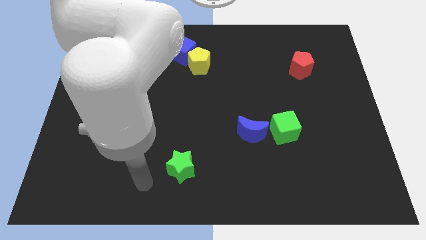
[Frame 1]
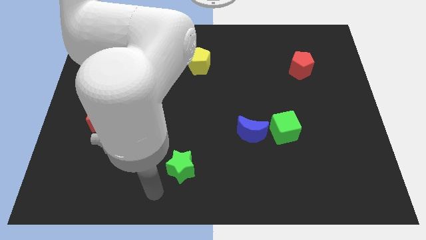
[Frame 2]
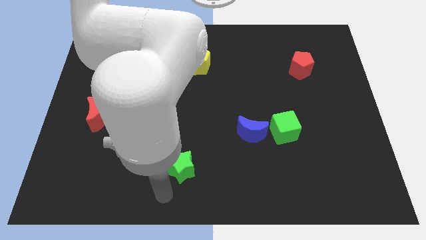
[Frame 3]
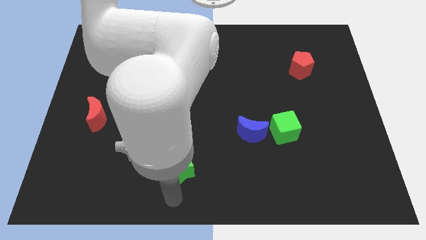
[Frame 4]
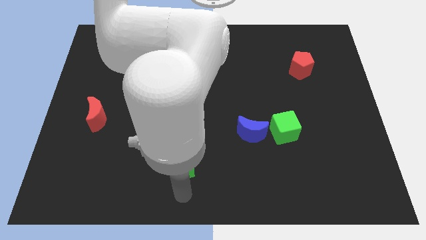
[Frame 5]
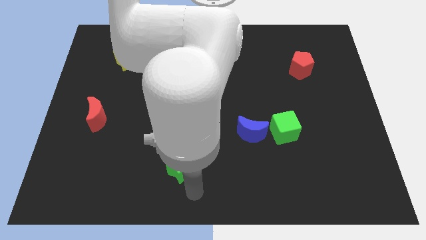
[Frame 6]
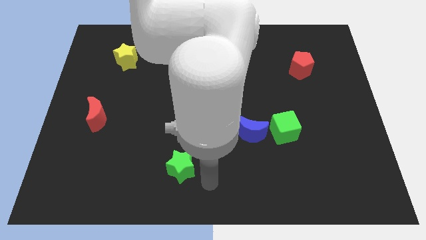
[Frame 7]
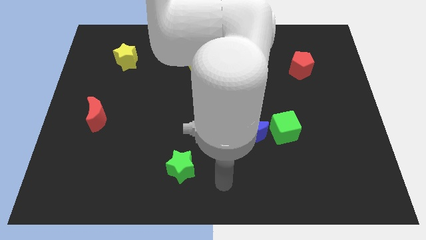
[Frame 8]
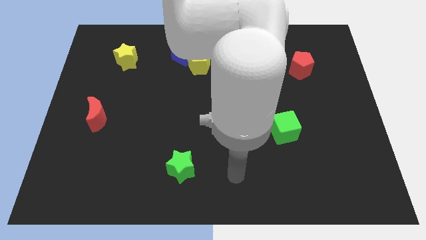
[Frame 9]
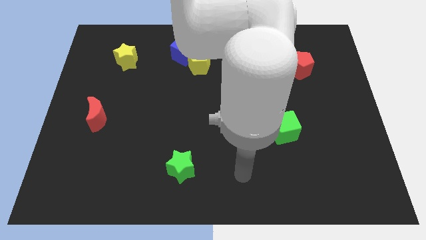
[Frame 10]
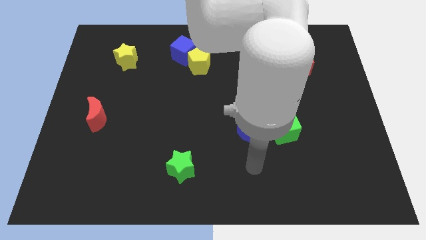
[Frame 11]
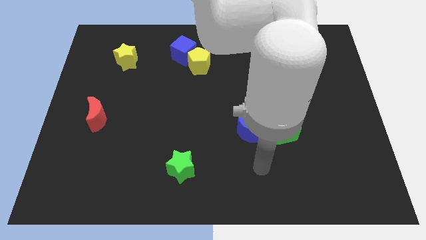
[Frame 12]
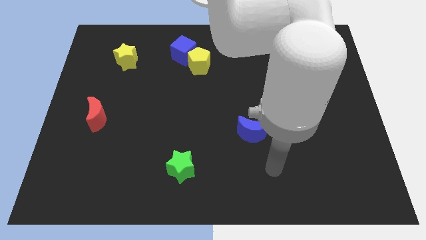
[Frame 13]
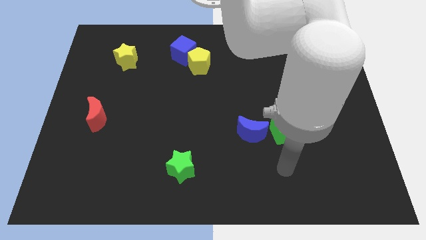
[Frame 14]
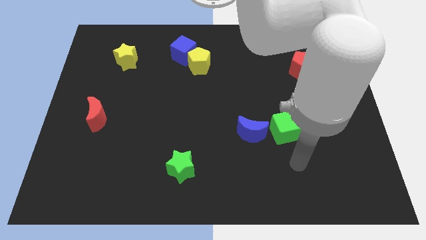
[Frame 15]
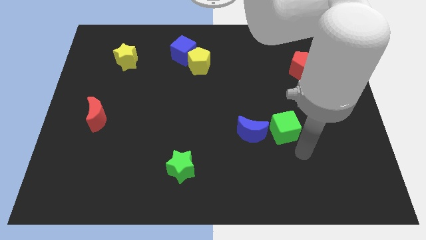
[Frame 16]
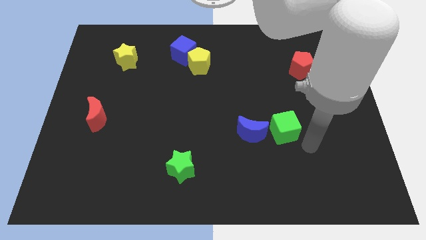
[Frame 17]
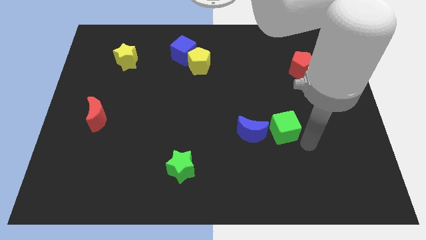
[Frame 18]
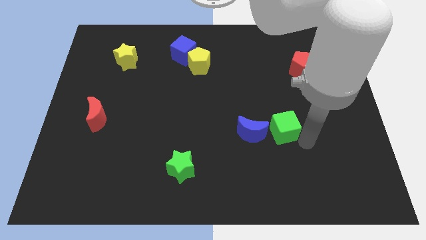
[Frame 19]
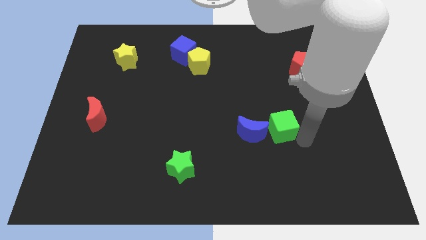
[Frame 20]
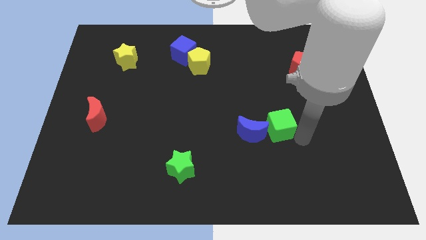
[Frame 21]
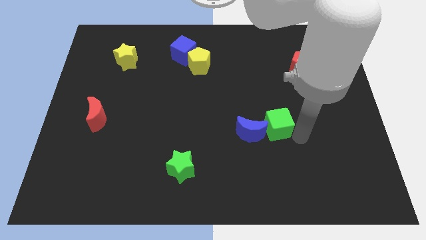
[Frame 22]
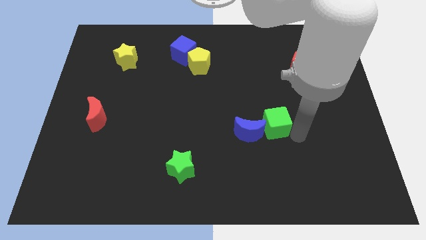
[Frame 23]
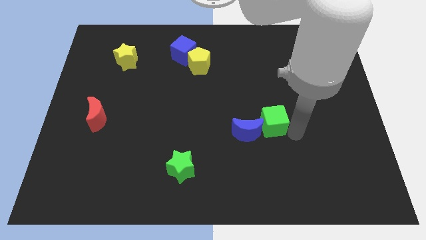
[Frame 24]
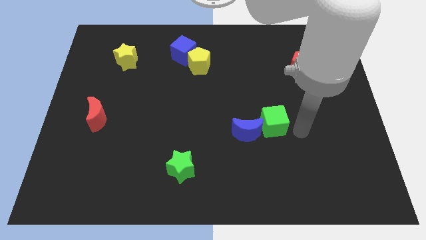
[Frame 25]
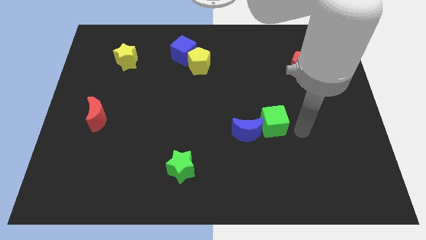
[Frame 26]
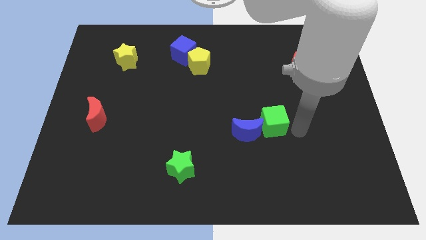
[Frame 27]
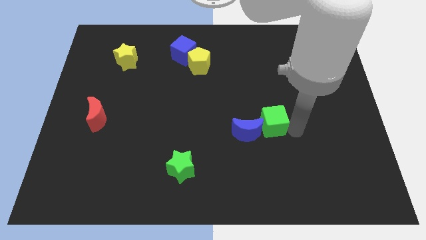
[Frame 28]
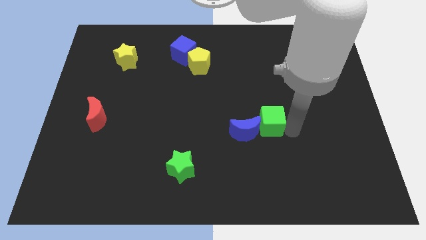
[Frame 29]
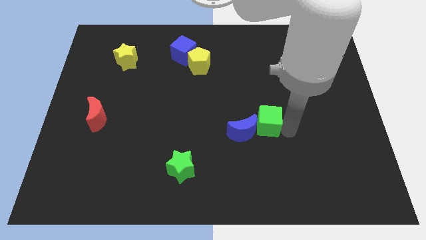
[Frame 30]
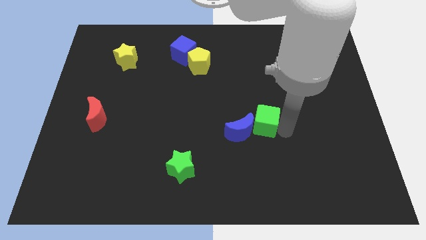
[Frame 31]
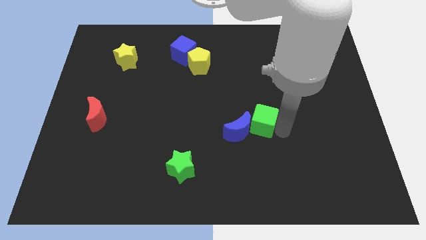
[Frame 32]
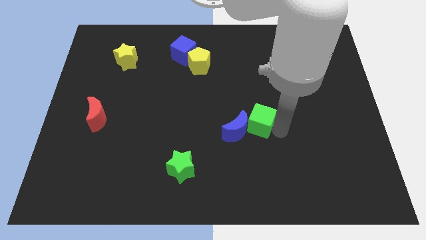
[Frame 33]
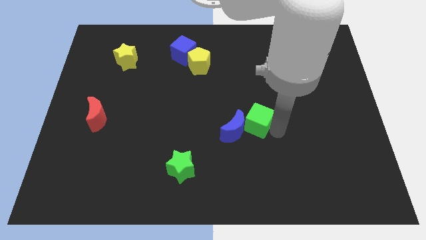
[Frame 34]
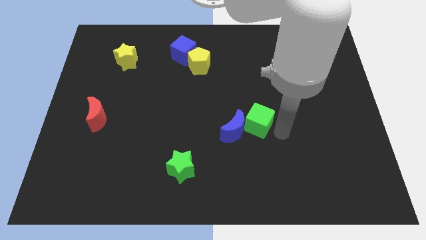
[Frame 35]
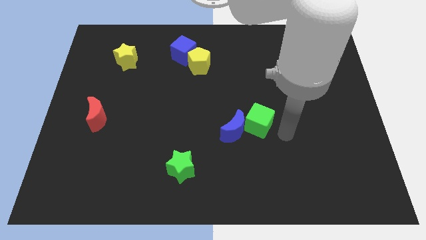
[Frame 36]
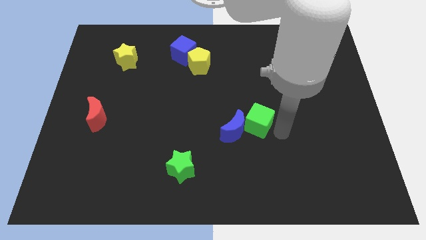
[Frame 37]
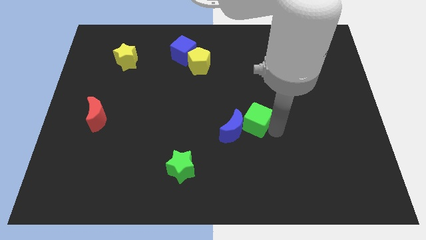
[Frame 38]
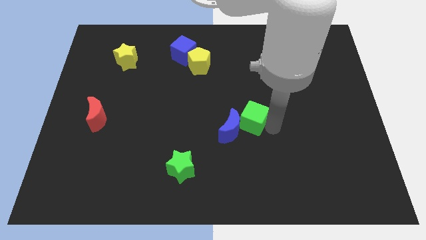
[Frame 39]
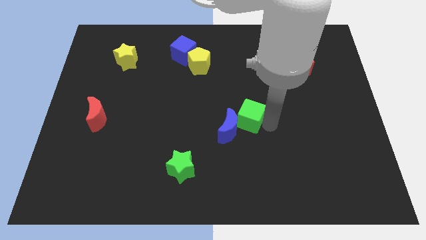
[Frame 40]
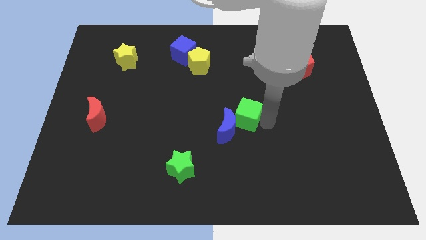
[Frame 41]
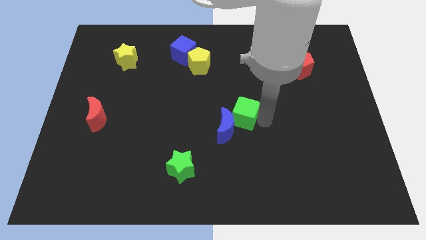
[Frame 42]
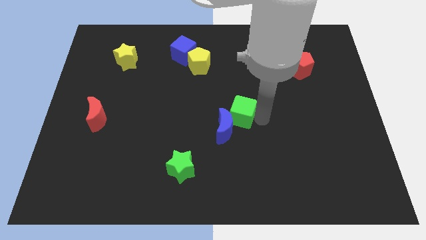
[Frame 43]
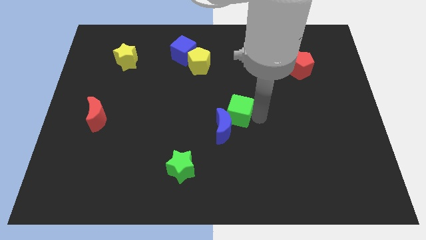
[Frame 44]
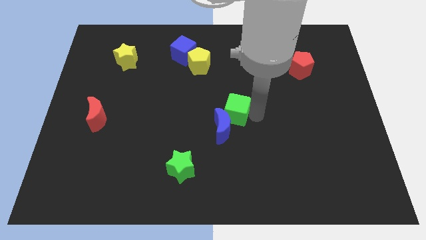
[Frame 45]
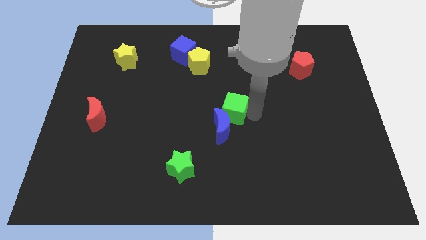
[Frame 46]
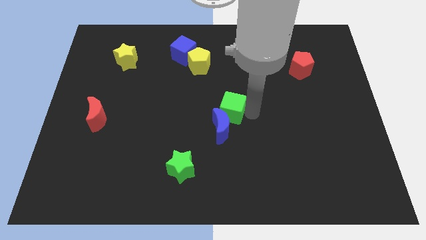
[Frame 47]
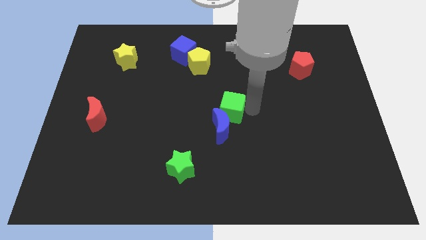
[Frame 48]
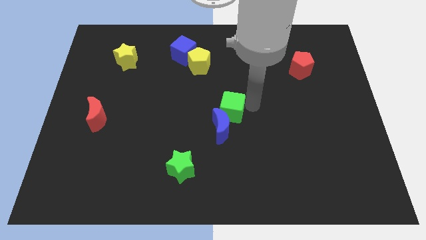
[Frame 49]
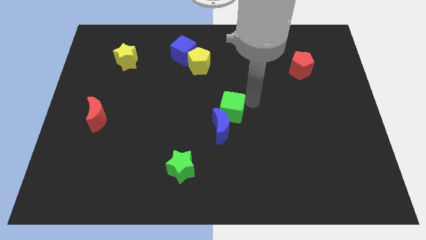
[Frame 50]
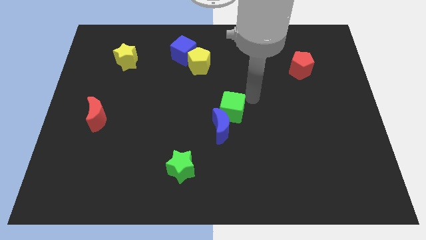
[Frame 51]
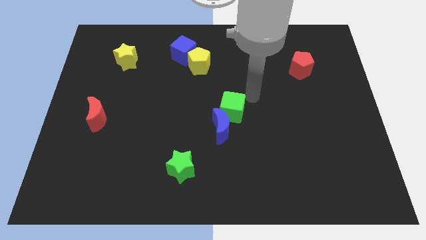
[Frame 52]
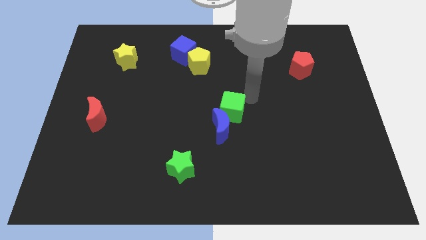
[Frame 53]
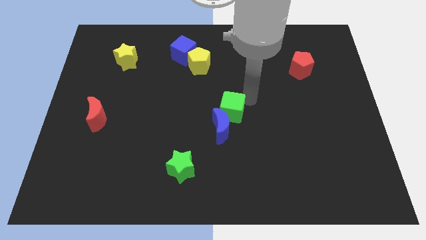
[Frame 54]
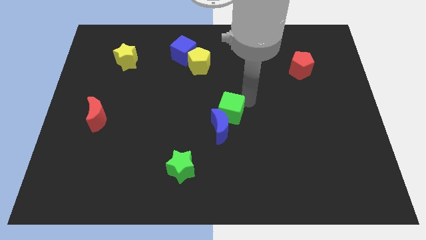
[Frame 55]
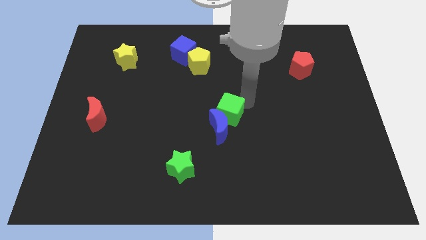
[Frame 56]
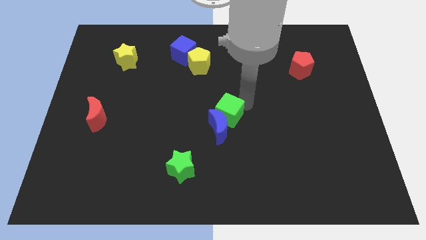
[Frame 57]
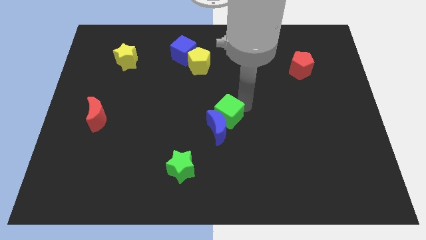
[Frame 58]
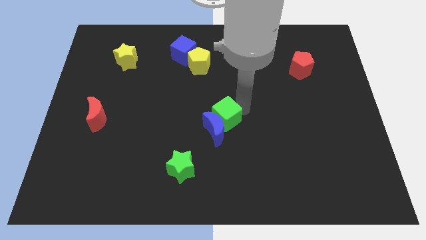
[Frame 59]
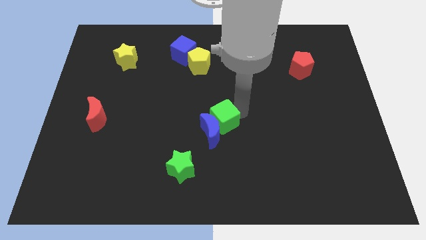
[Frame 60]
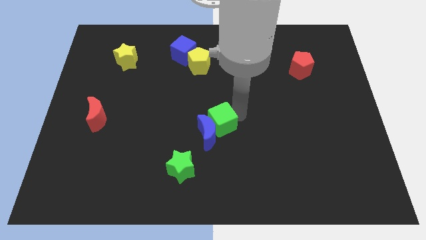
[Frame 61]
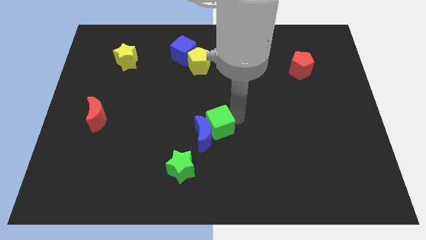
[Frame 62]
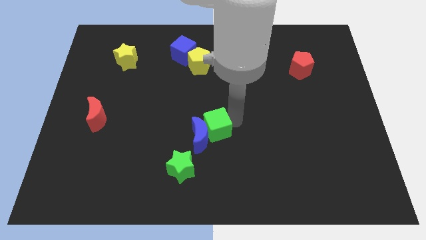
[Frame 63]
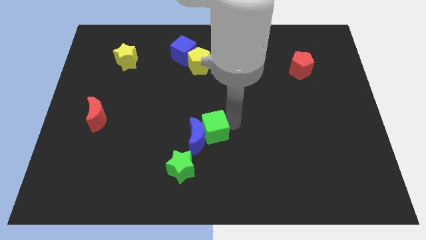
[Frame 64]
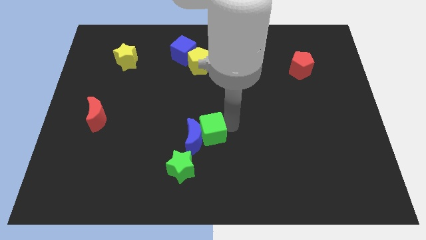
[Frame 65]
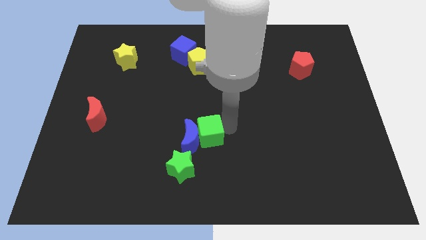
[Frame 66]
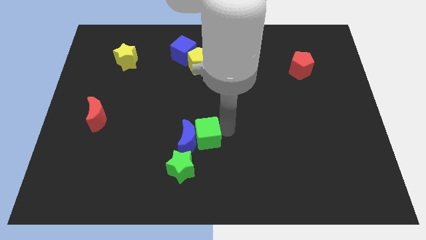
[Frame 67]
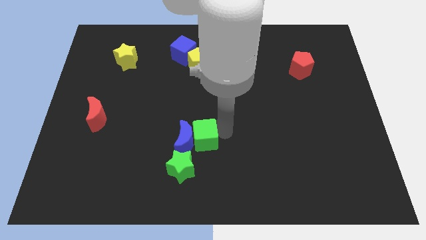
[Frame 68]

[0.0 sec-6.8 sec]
slide the green cube to the top of the green star
